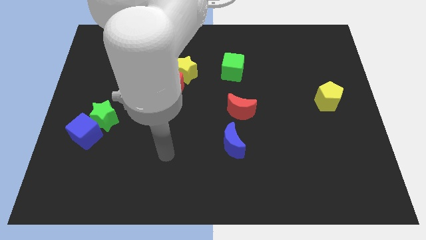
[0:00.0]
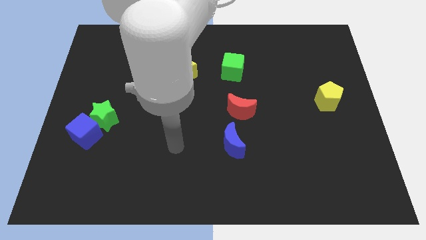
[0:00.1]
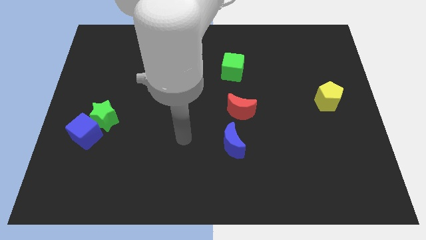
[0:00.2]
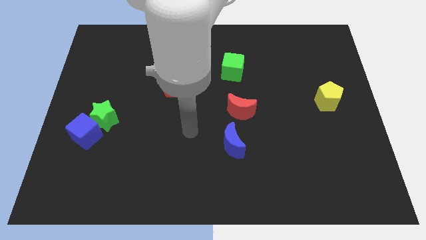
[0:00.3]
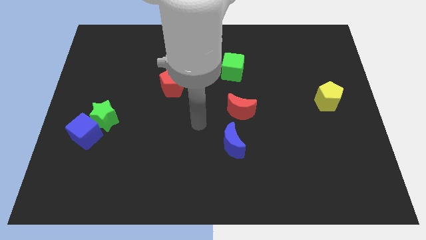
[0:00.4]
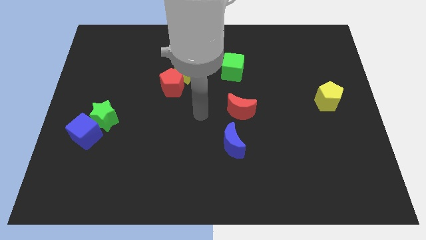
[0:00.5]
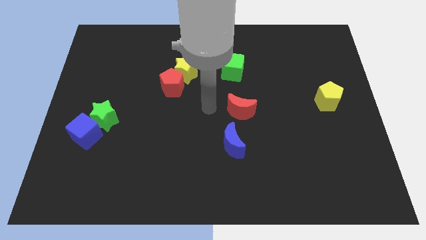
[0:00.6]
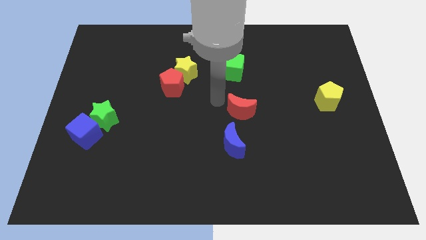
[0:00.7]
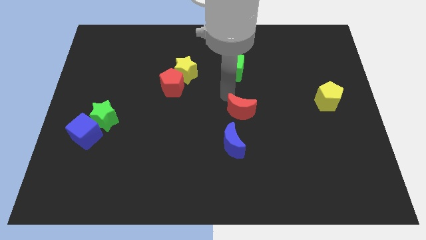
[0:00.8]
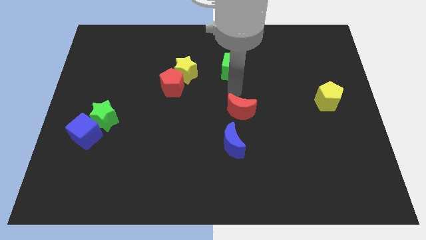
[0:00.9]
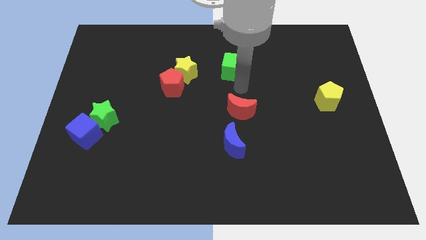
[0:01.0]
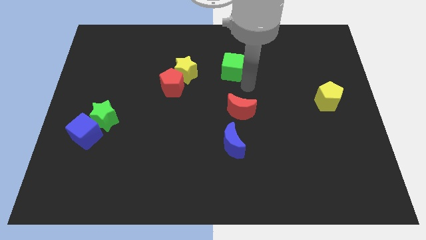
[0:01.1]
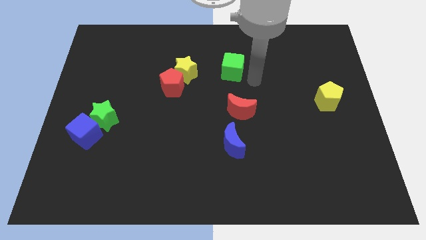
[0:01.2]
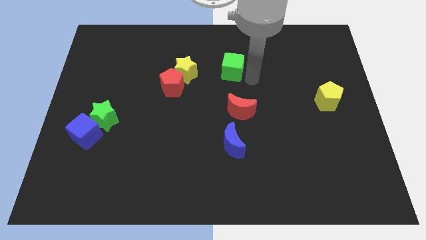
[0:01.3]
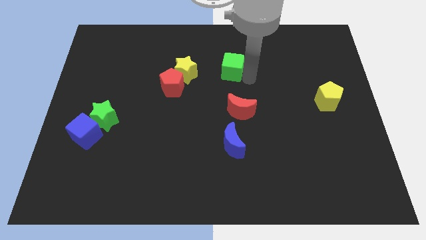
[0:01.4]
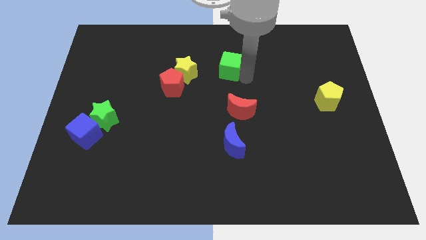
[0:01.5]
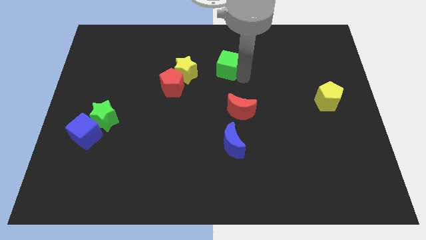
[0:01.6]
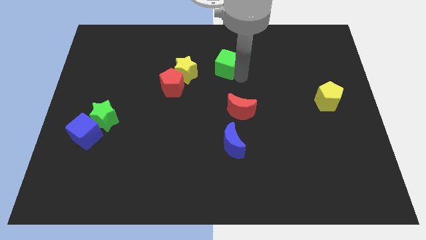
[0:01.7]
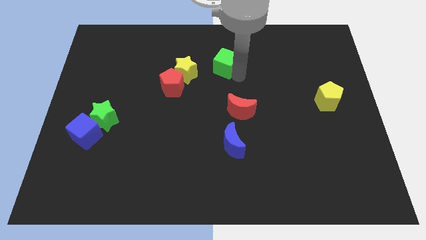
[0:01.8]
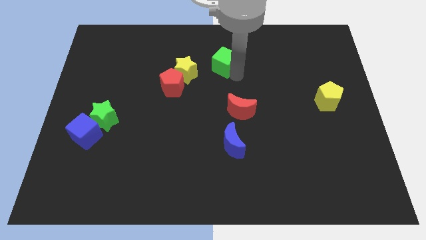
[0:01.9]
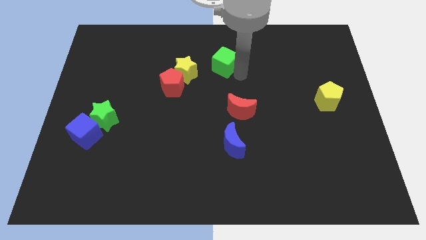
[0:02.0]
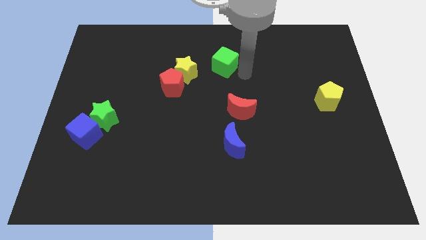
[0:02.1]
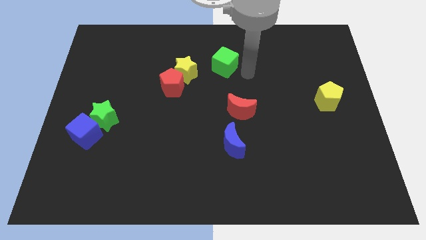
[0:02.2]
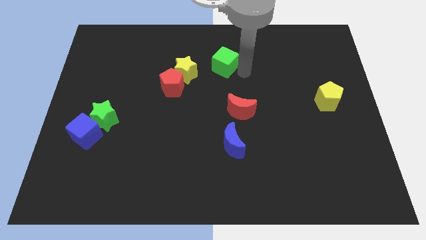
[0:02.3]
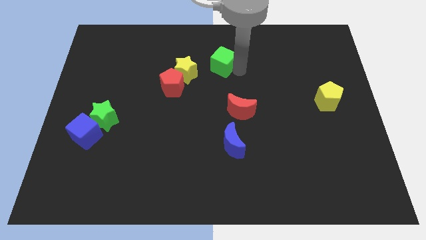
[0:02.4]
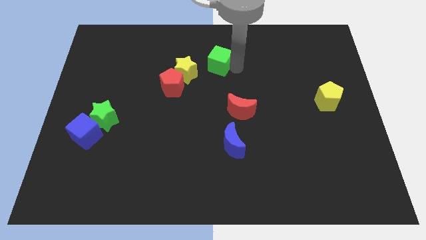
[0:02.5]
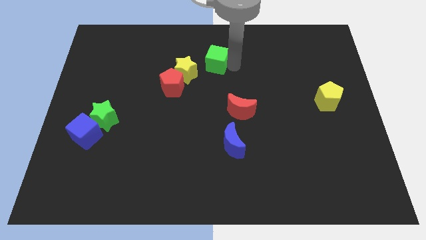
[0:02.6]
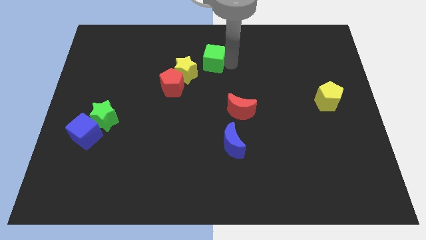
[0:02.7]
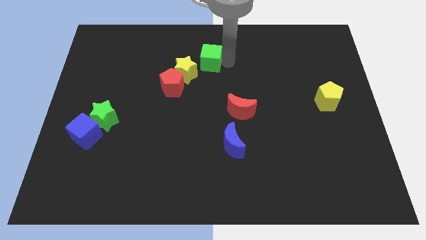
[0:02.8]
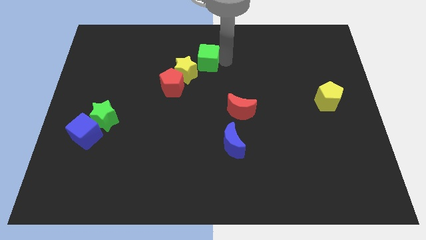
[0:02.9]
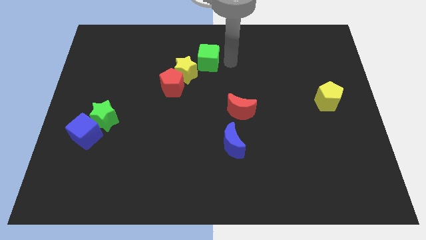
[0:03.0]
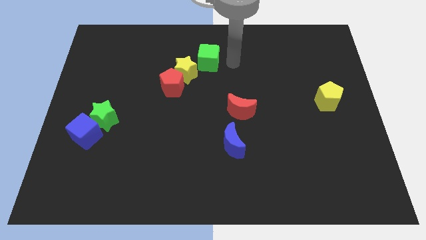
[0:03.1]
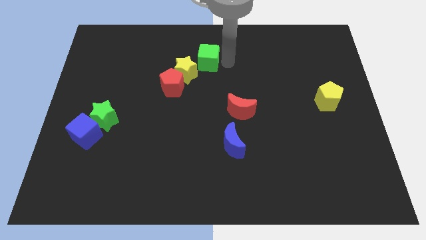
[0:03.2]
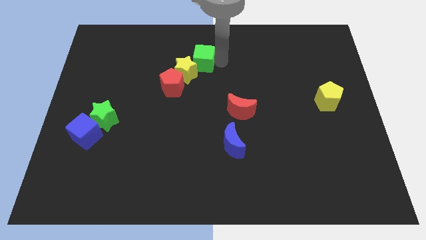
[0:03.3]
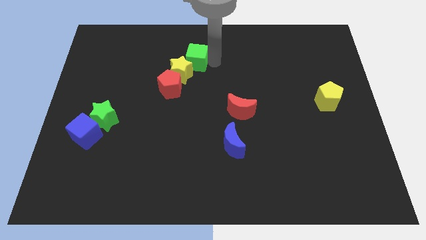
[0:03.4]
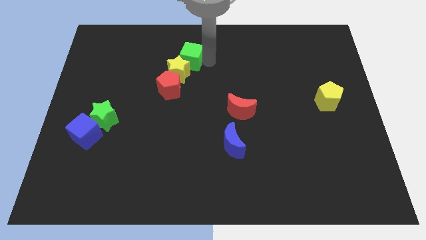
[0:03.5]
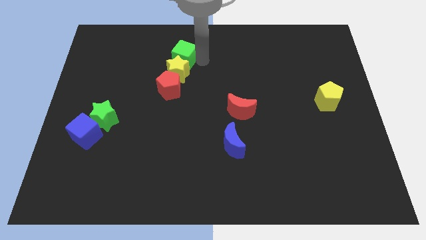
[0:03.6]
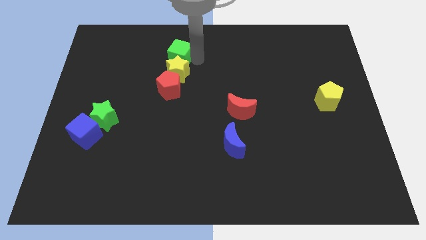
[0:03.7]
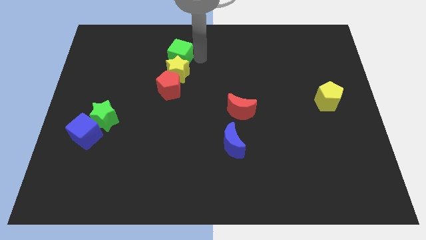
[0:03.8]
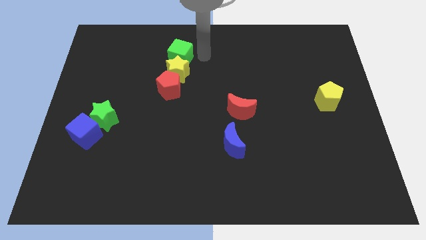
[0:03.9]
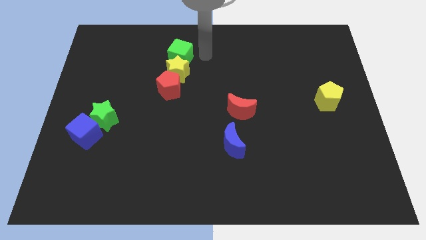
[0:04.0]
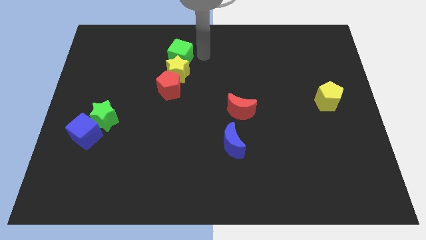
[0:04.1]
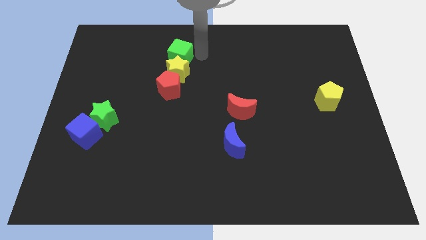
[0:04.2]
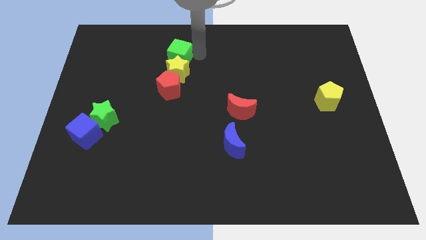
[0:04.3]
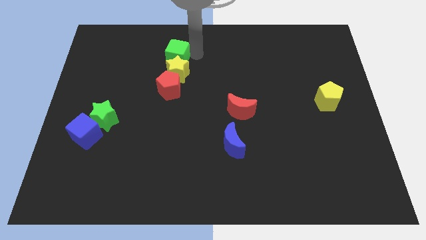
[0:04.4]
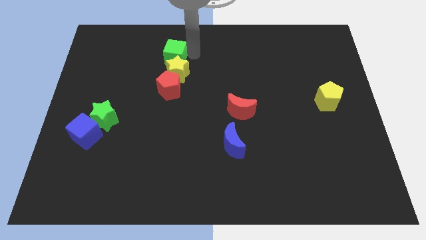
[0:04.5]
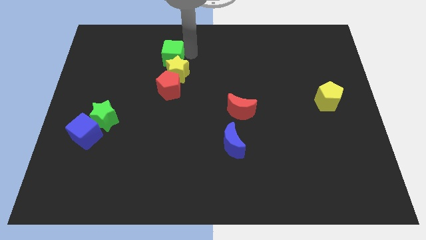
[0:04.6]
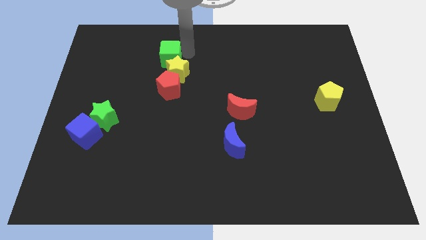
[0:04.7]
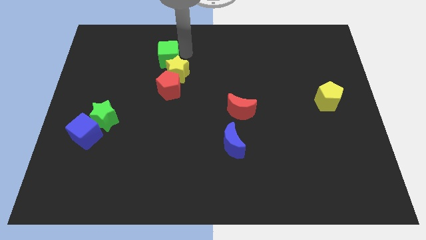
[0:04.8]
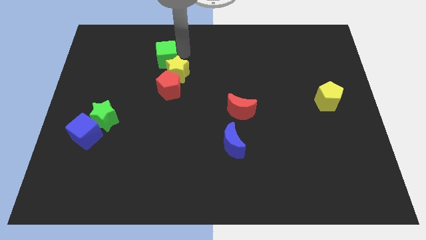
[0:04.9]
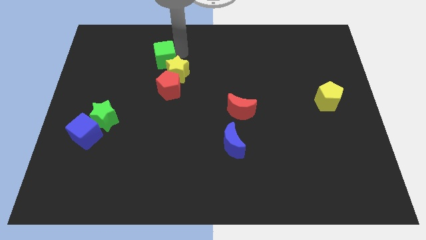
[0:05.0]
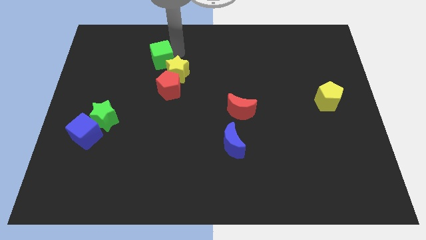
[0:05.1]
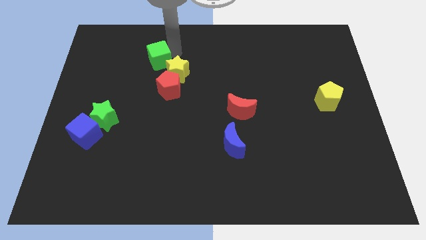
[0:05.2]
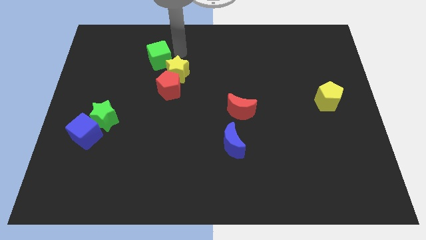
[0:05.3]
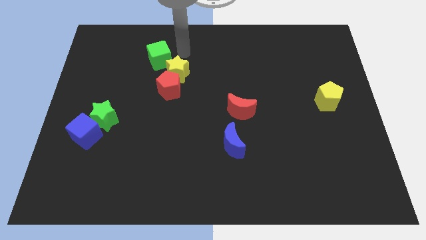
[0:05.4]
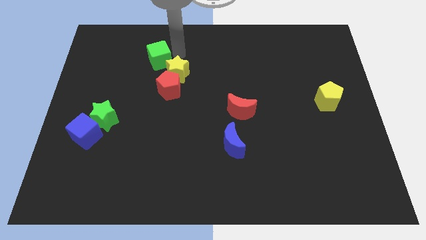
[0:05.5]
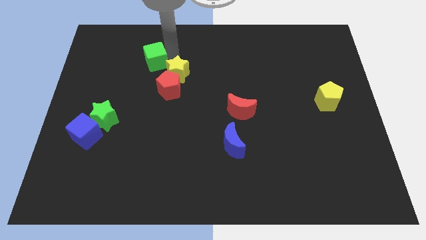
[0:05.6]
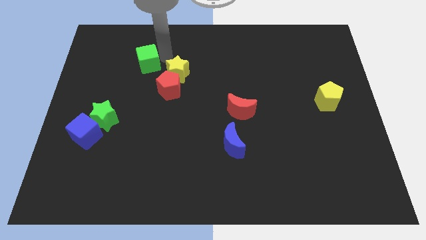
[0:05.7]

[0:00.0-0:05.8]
move the green cube left

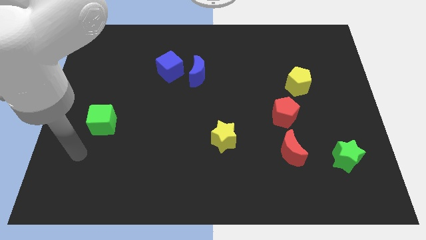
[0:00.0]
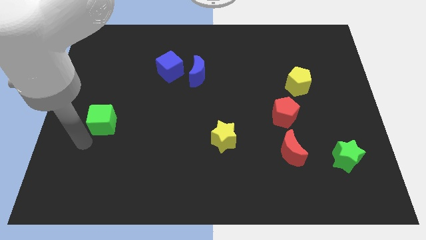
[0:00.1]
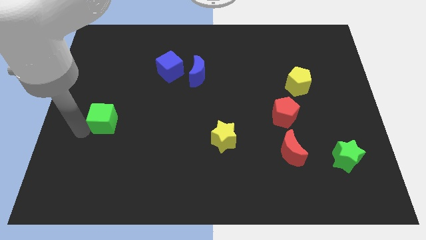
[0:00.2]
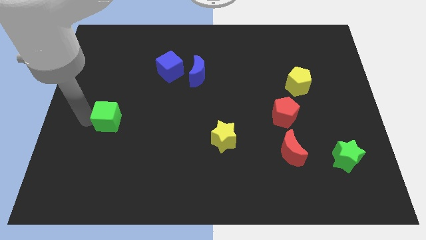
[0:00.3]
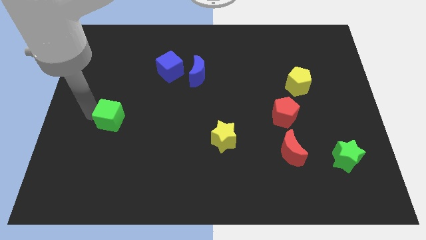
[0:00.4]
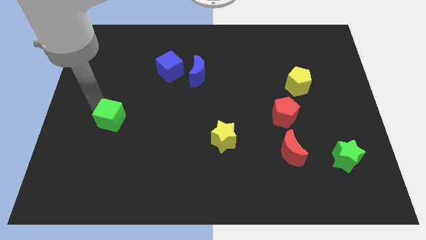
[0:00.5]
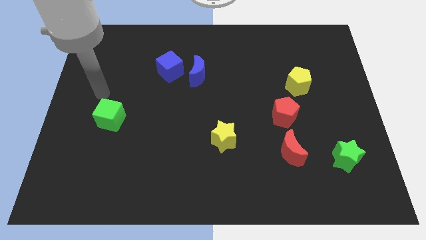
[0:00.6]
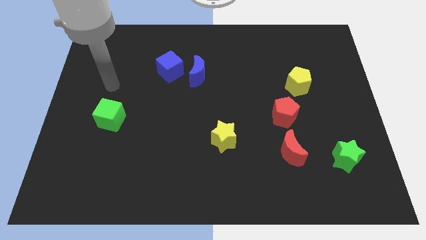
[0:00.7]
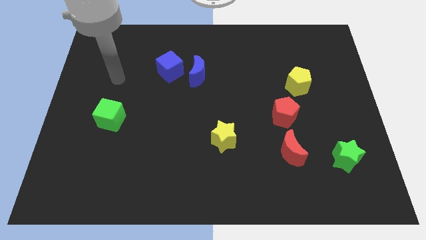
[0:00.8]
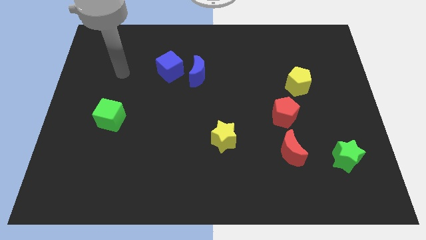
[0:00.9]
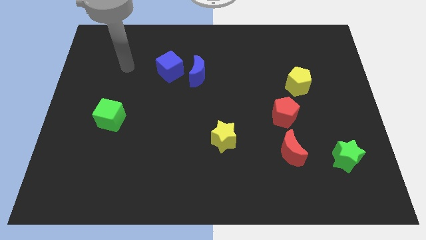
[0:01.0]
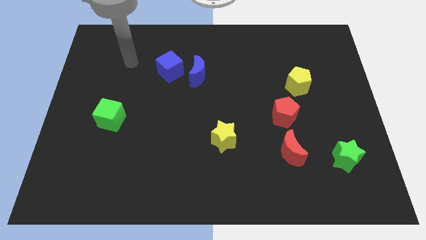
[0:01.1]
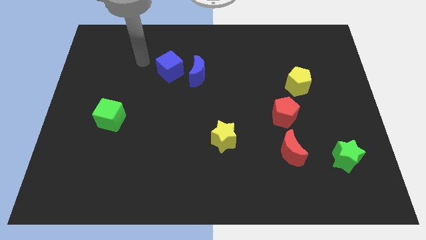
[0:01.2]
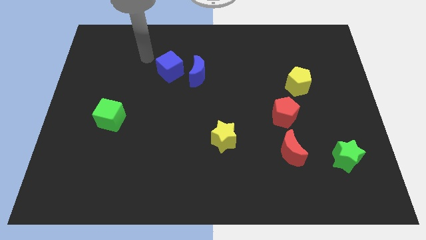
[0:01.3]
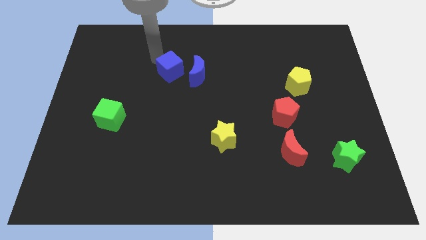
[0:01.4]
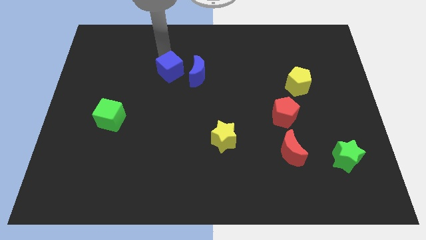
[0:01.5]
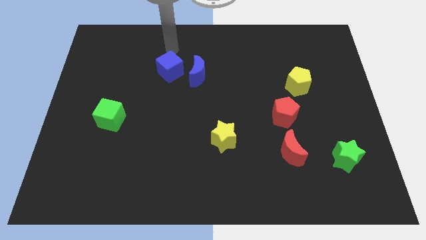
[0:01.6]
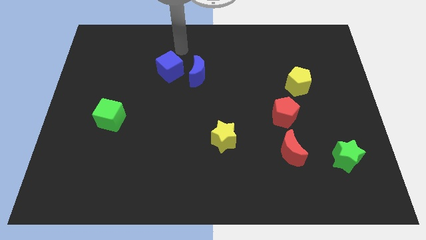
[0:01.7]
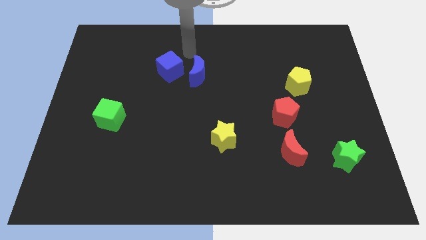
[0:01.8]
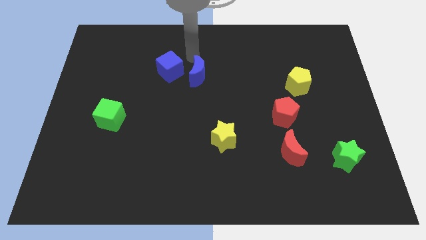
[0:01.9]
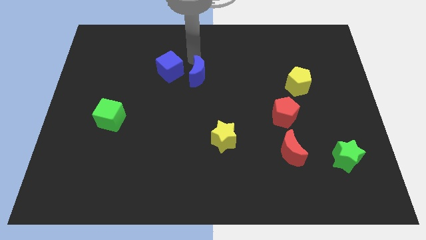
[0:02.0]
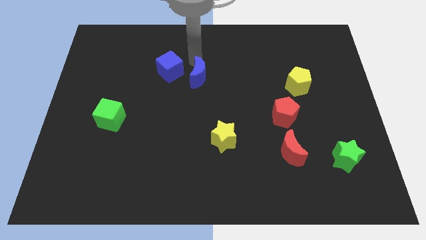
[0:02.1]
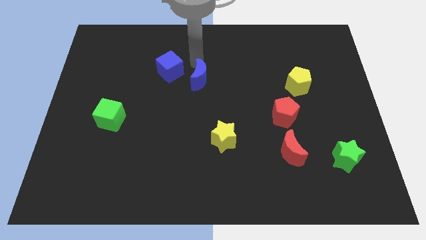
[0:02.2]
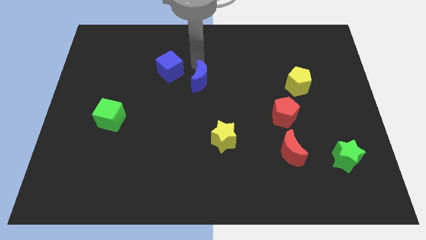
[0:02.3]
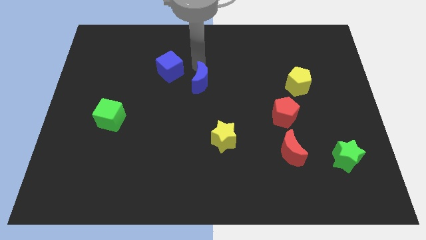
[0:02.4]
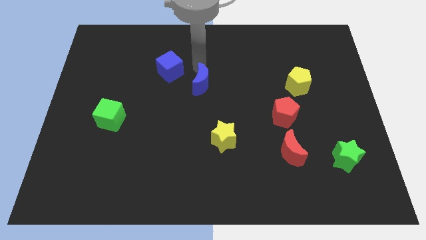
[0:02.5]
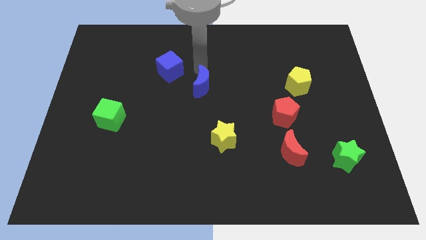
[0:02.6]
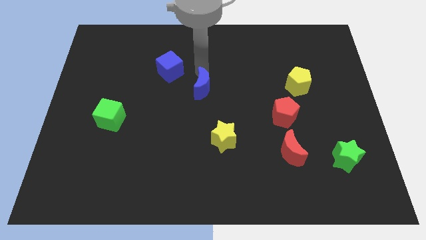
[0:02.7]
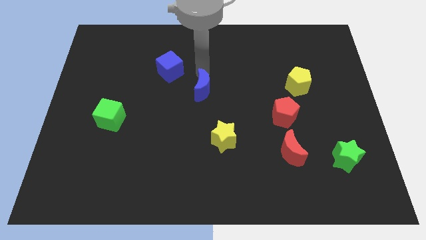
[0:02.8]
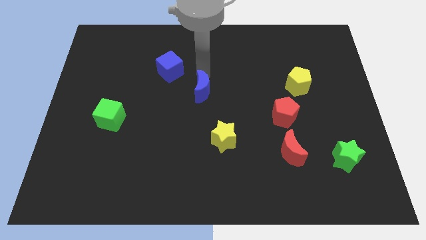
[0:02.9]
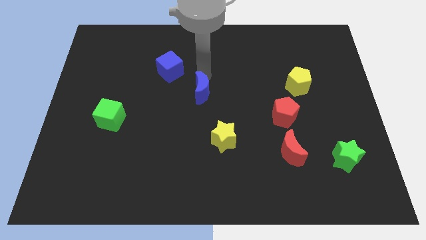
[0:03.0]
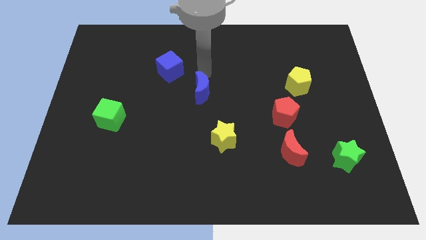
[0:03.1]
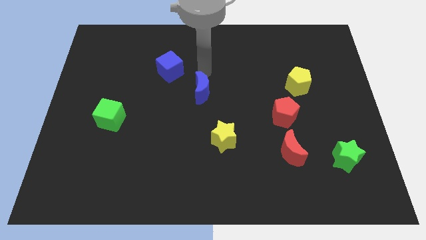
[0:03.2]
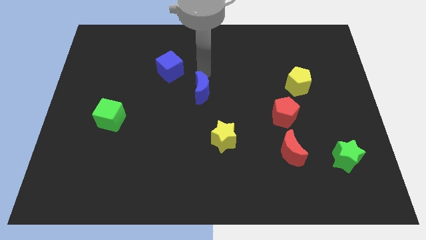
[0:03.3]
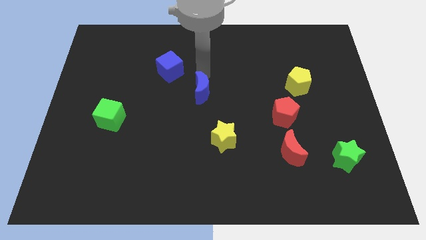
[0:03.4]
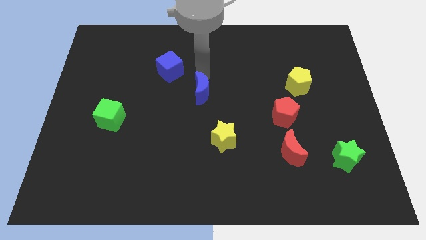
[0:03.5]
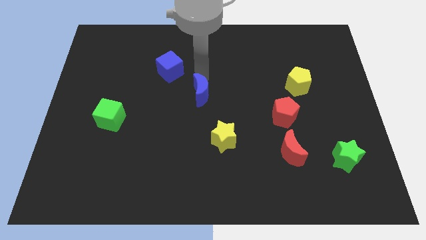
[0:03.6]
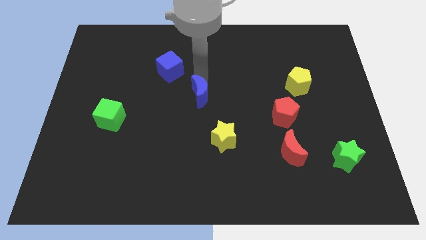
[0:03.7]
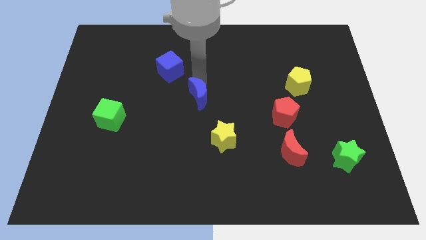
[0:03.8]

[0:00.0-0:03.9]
slide the blue moon down a little bit
